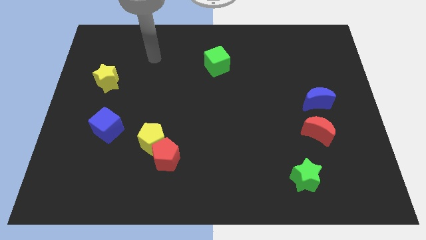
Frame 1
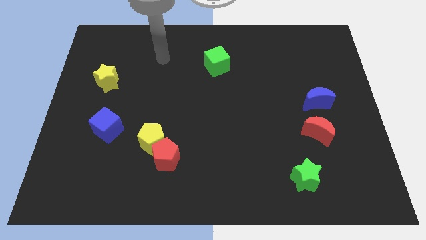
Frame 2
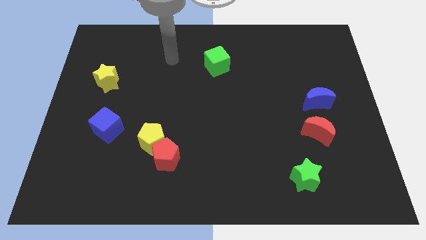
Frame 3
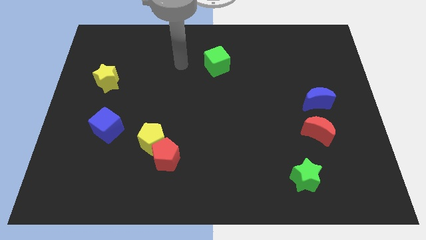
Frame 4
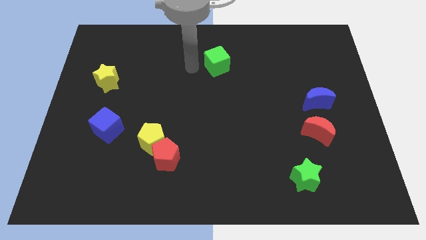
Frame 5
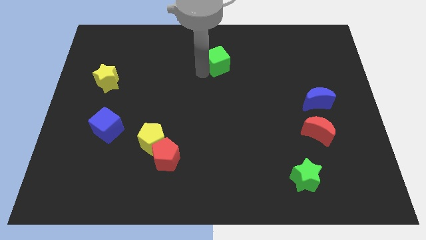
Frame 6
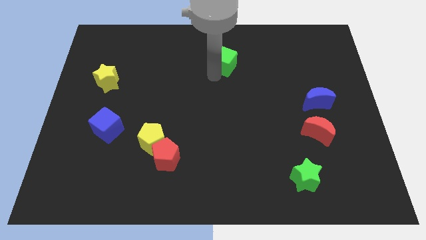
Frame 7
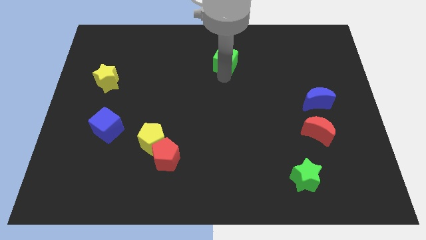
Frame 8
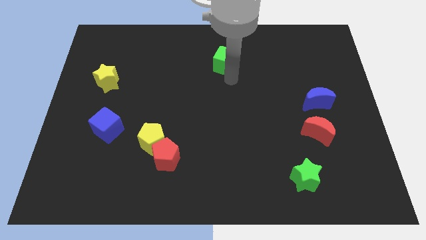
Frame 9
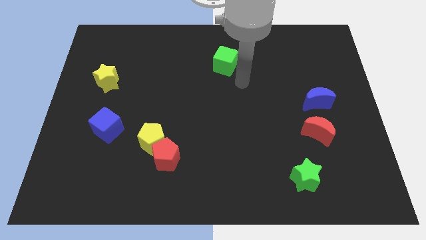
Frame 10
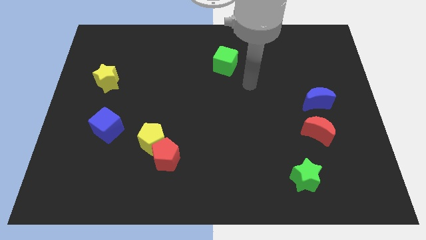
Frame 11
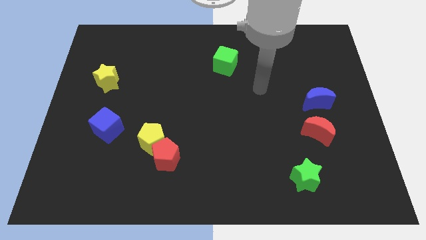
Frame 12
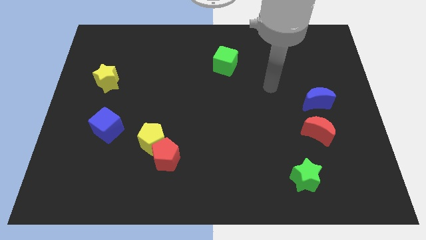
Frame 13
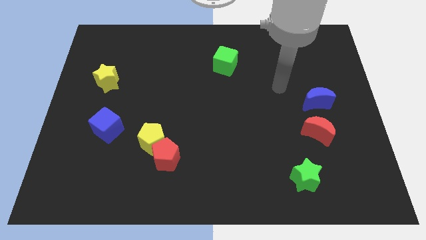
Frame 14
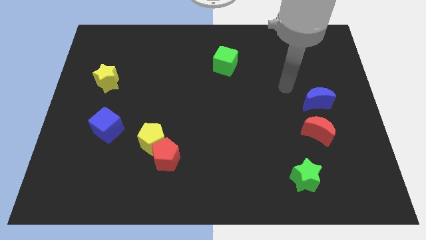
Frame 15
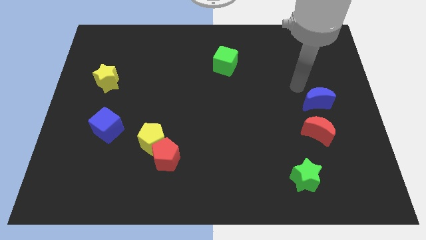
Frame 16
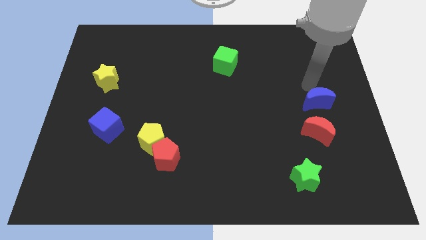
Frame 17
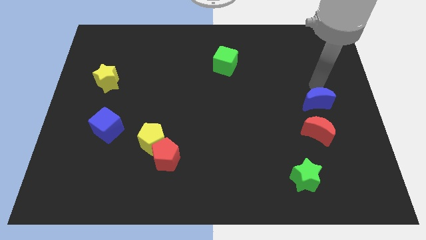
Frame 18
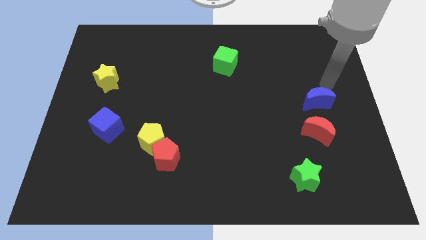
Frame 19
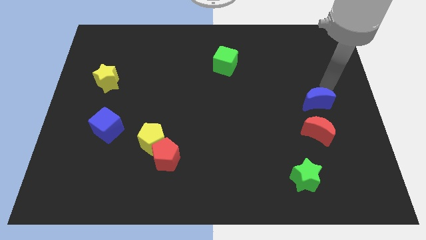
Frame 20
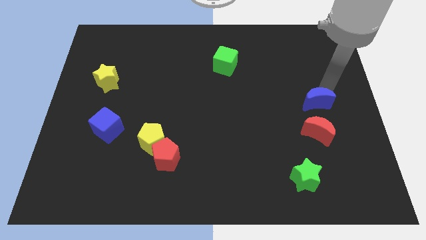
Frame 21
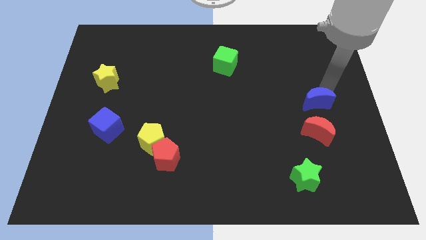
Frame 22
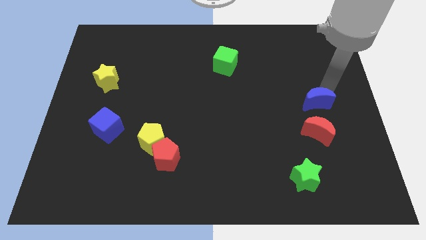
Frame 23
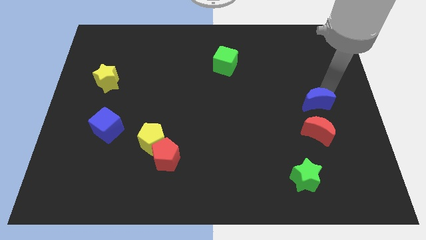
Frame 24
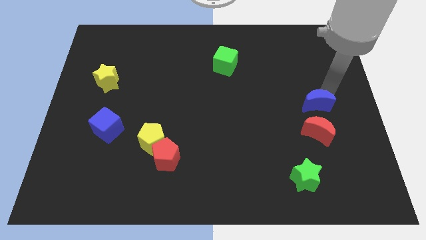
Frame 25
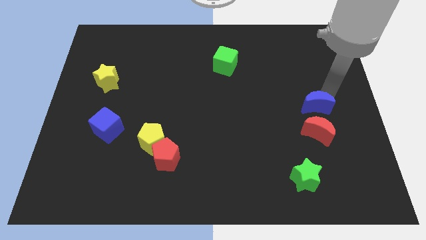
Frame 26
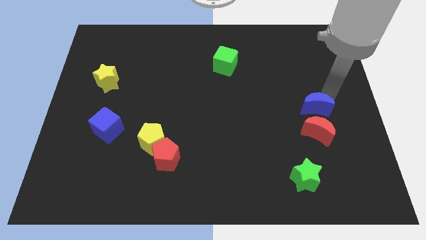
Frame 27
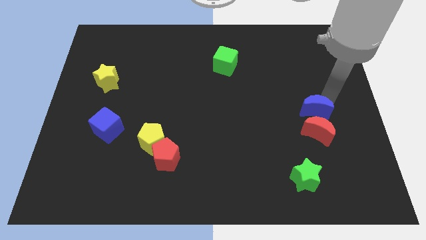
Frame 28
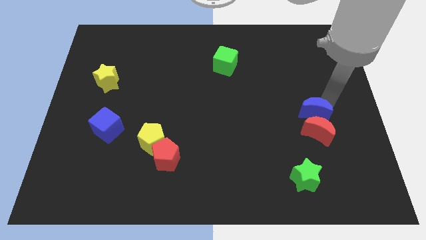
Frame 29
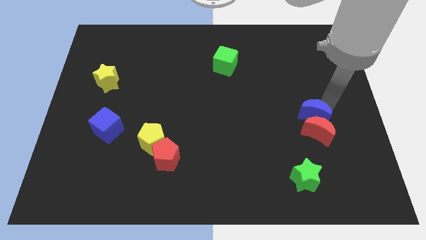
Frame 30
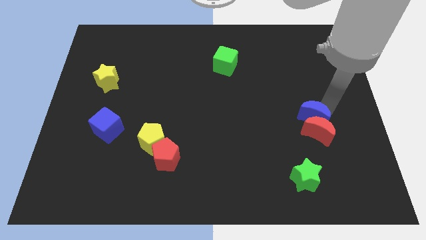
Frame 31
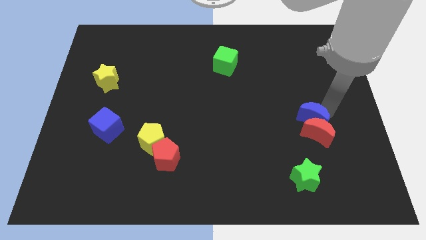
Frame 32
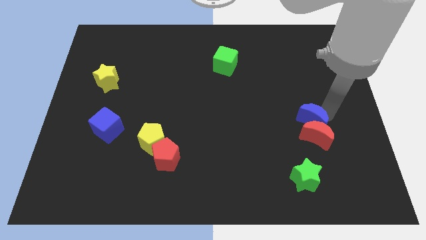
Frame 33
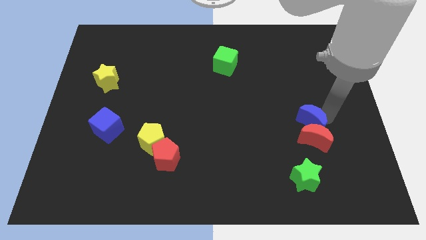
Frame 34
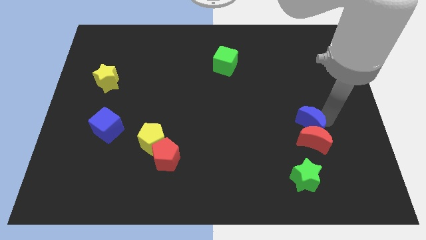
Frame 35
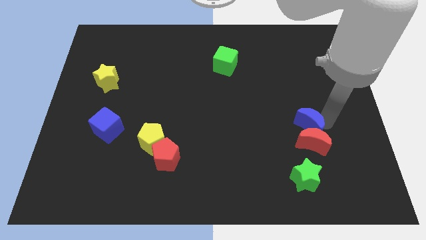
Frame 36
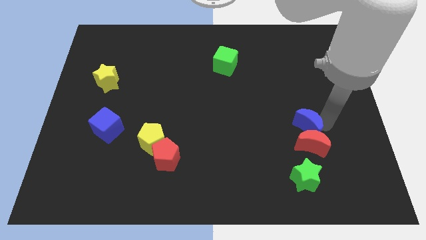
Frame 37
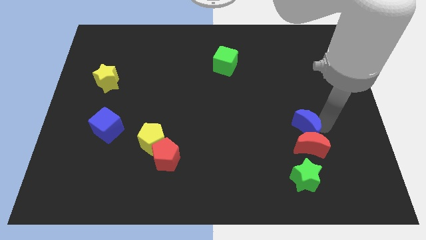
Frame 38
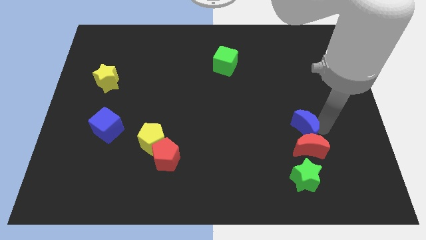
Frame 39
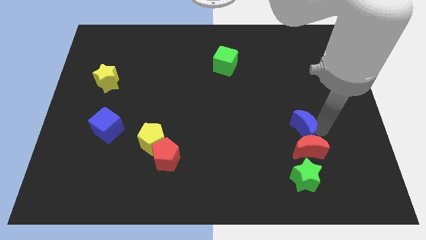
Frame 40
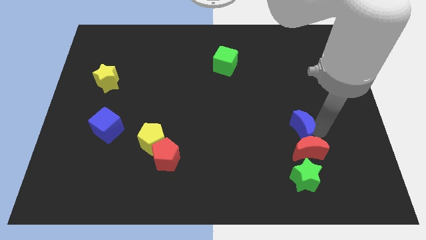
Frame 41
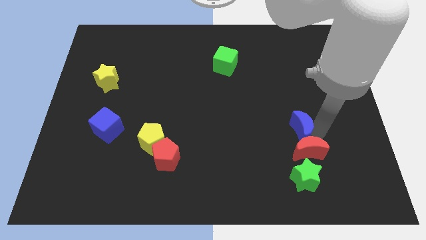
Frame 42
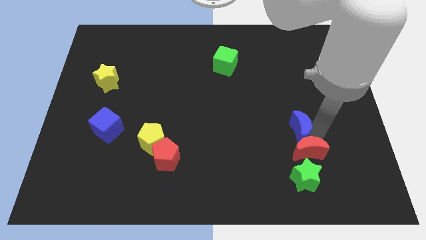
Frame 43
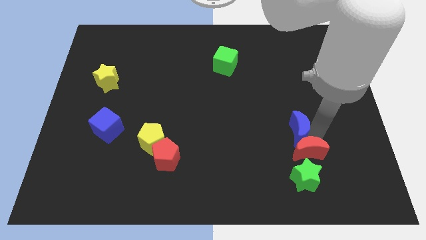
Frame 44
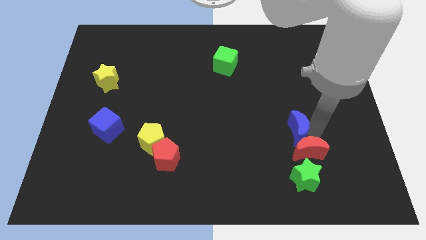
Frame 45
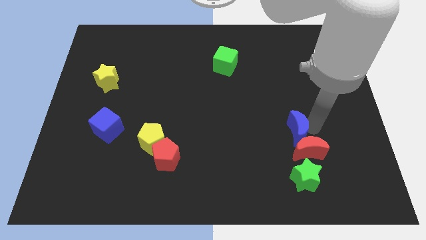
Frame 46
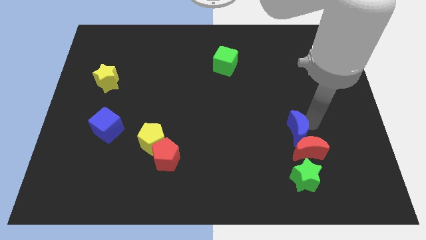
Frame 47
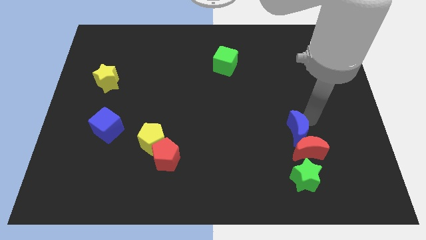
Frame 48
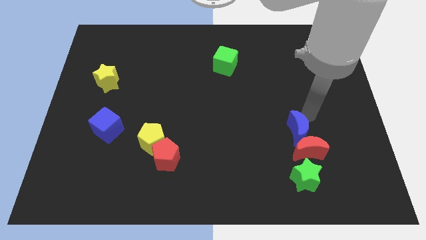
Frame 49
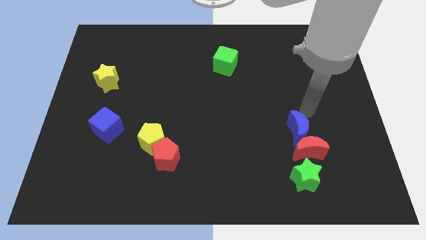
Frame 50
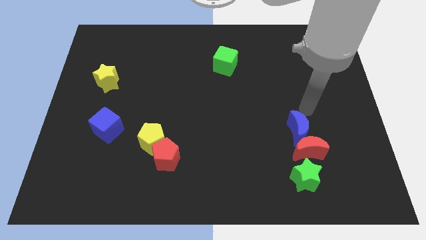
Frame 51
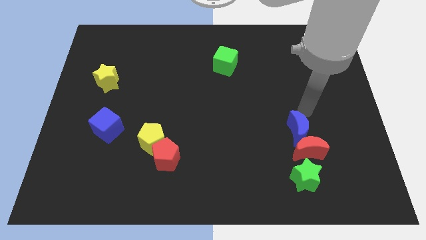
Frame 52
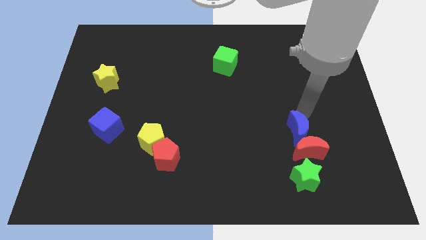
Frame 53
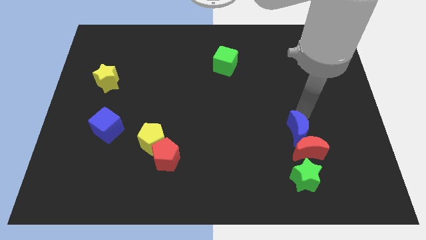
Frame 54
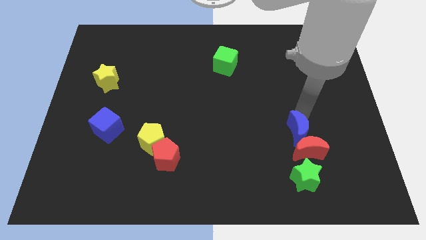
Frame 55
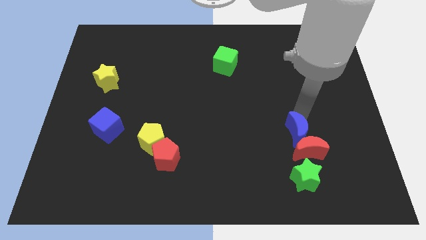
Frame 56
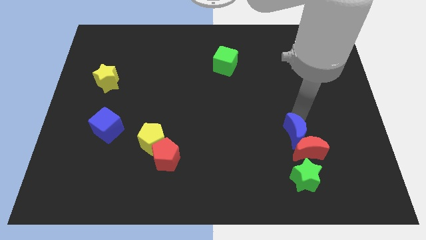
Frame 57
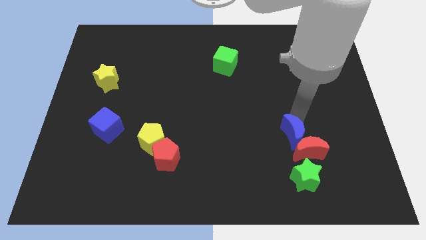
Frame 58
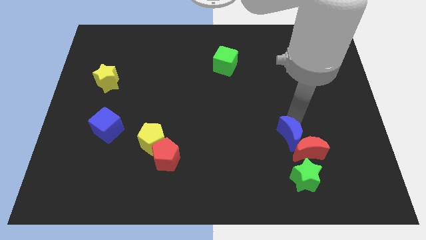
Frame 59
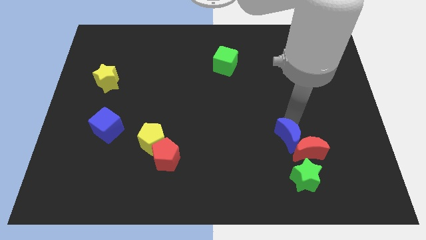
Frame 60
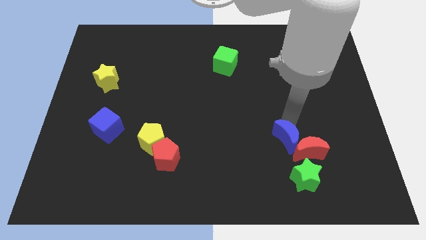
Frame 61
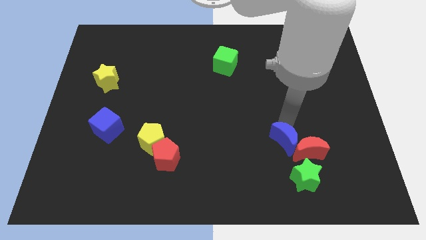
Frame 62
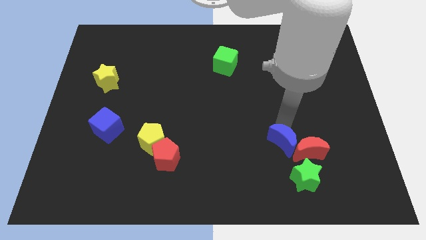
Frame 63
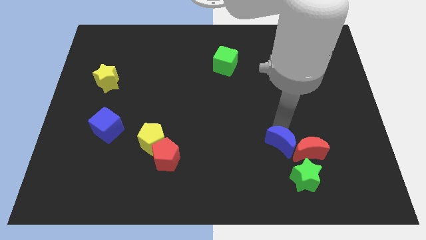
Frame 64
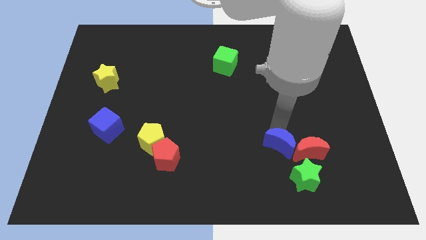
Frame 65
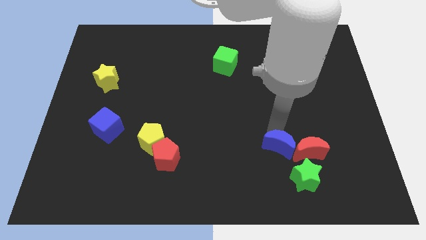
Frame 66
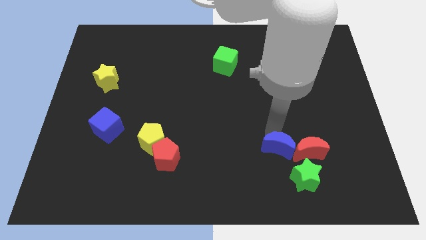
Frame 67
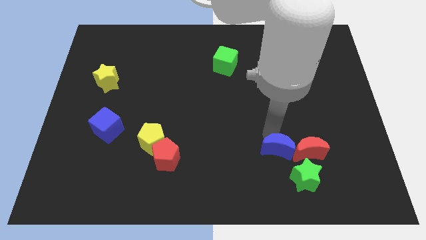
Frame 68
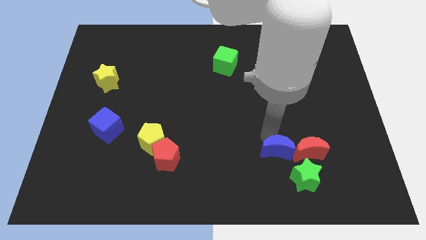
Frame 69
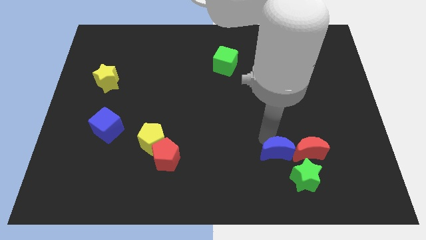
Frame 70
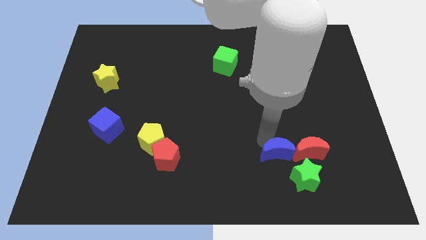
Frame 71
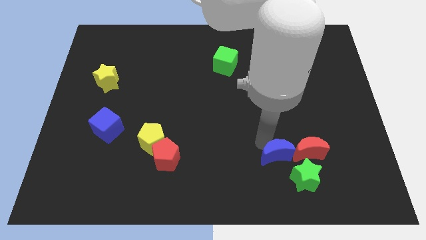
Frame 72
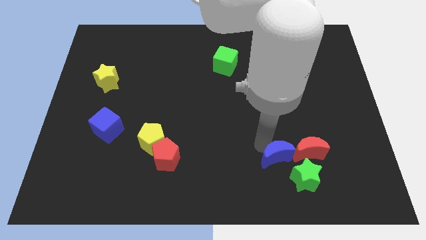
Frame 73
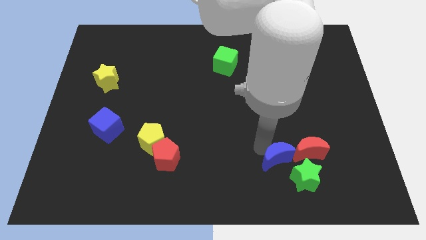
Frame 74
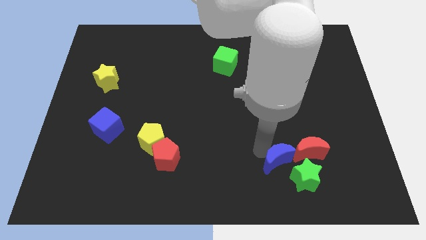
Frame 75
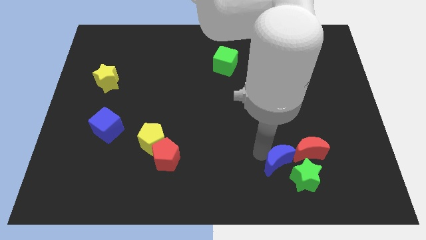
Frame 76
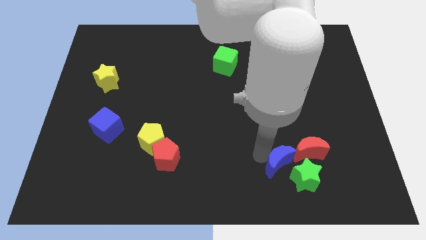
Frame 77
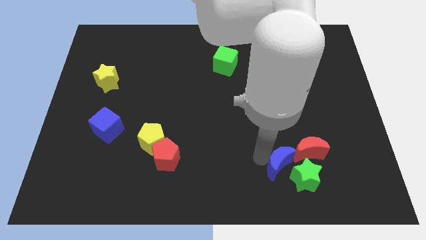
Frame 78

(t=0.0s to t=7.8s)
put the blue moon towards the green star
